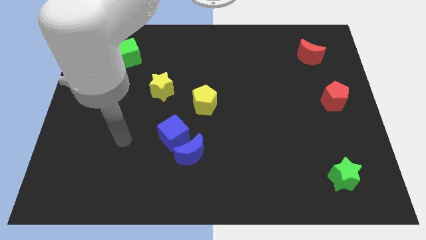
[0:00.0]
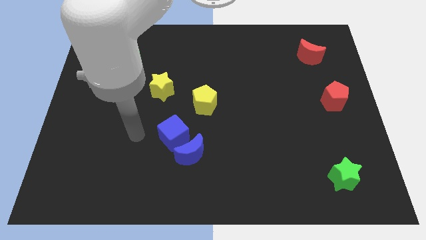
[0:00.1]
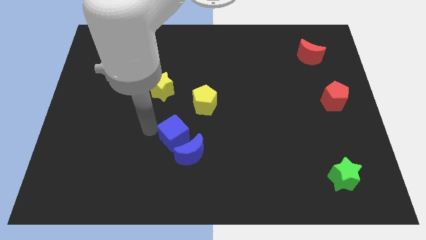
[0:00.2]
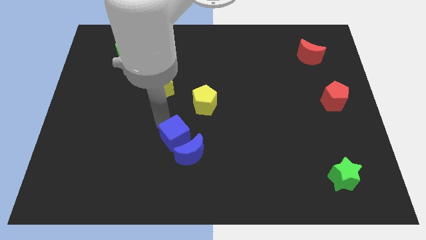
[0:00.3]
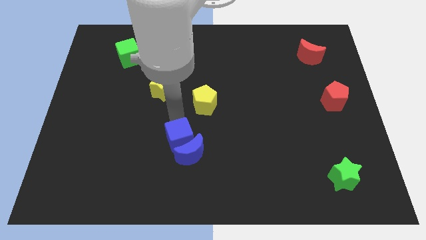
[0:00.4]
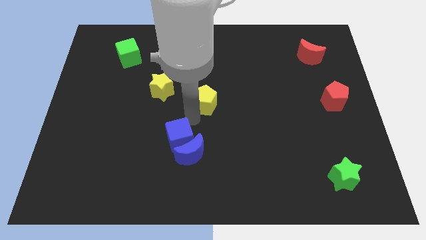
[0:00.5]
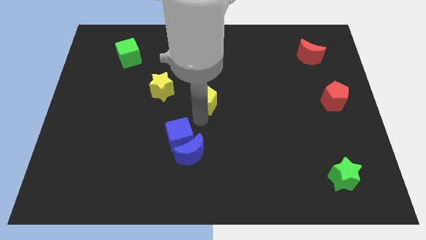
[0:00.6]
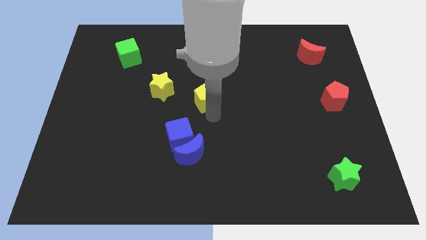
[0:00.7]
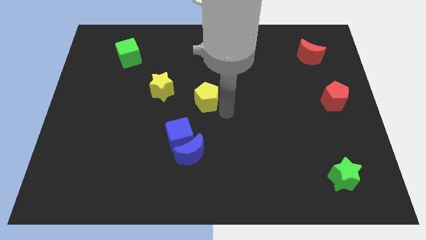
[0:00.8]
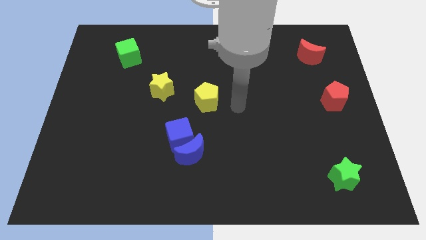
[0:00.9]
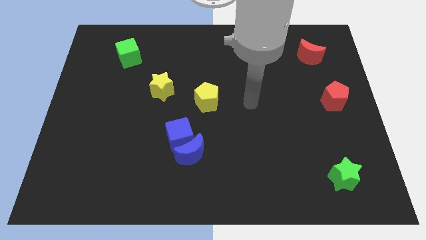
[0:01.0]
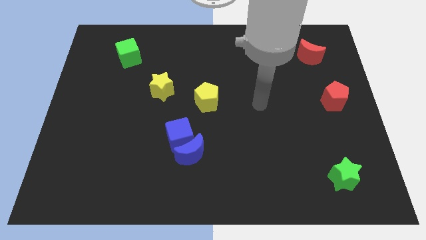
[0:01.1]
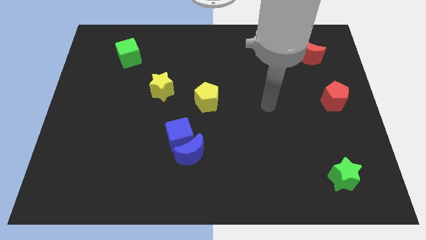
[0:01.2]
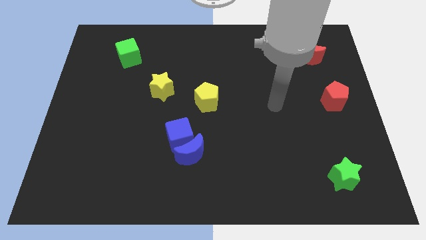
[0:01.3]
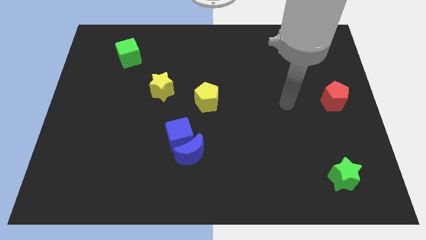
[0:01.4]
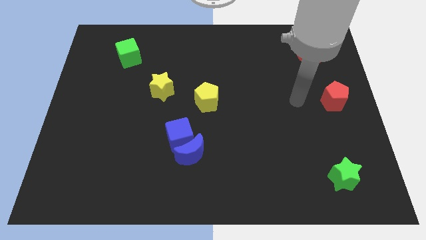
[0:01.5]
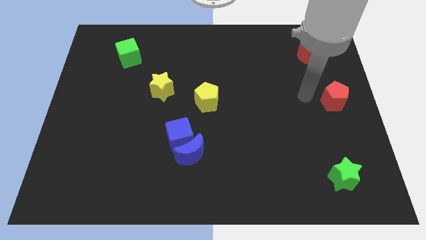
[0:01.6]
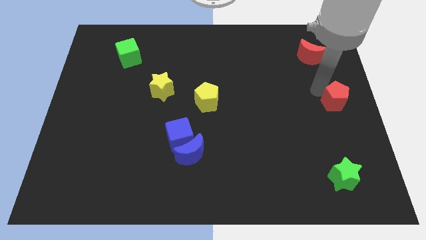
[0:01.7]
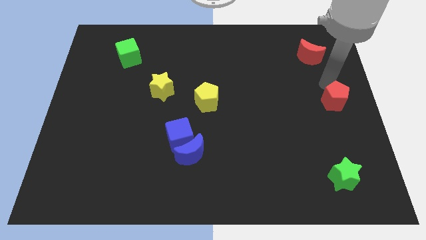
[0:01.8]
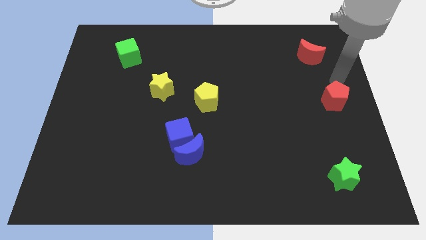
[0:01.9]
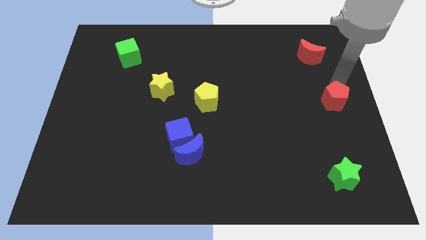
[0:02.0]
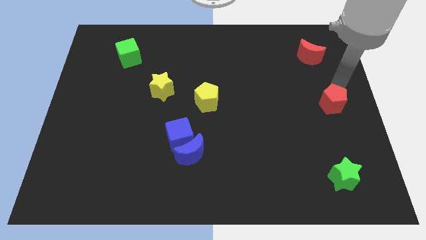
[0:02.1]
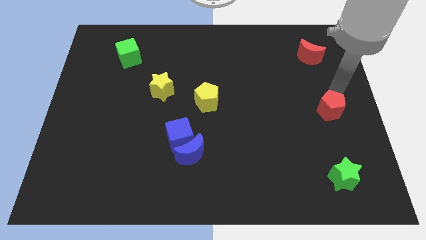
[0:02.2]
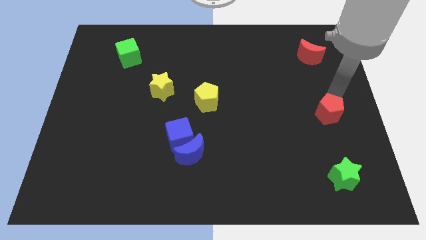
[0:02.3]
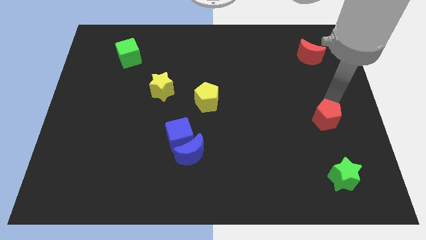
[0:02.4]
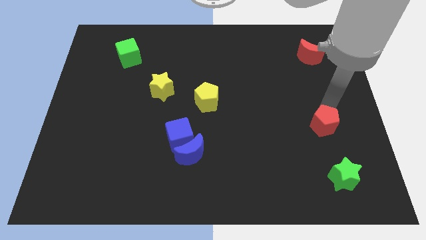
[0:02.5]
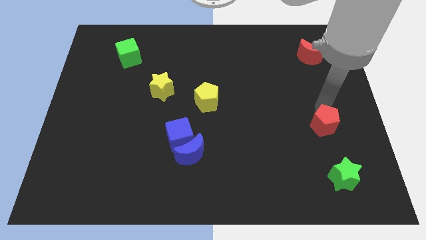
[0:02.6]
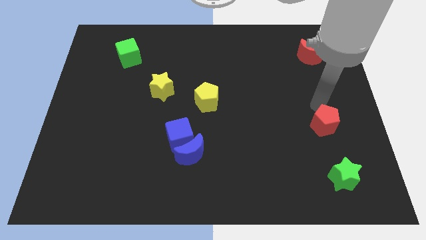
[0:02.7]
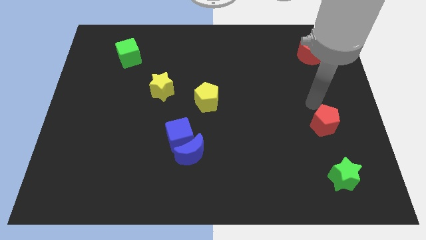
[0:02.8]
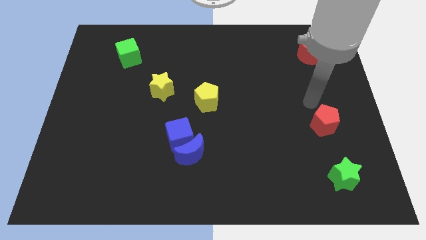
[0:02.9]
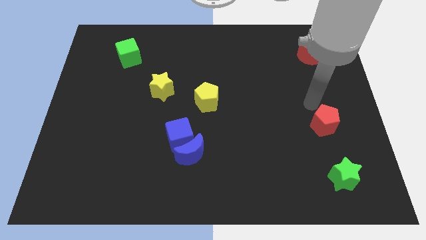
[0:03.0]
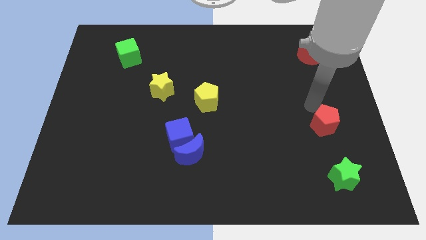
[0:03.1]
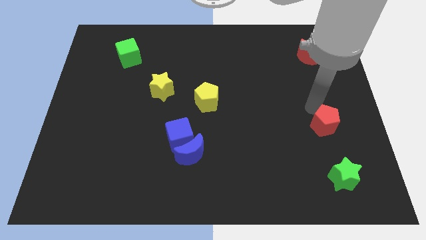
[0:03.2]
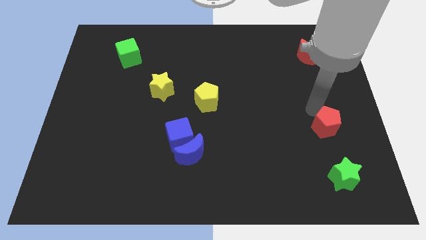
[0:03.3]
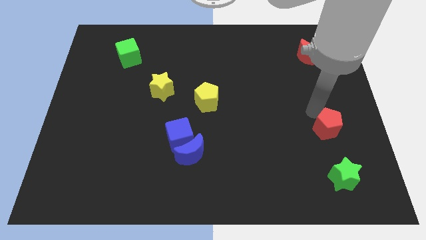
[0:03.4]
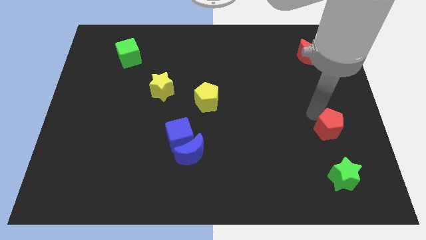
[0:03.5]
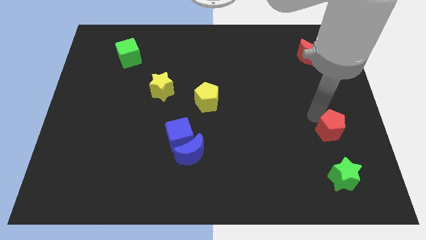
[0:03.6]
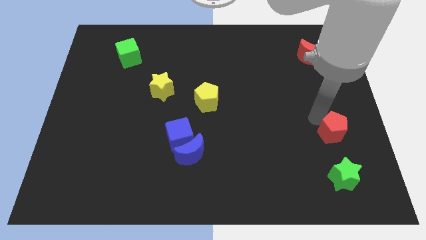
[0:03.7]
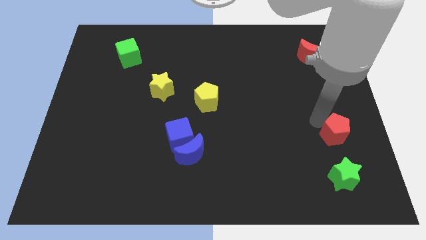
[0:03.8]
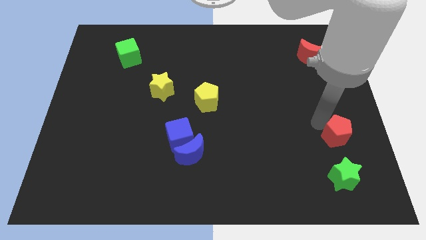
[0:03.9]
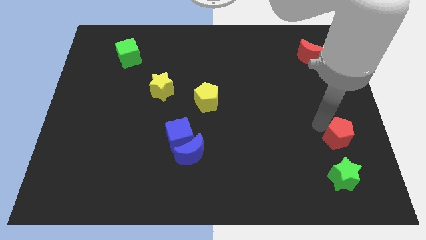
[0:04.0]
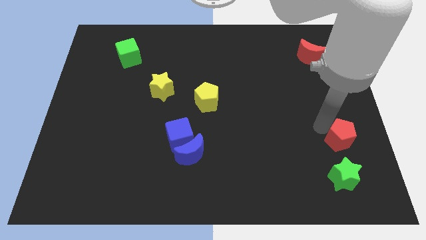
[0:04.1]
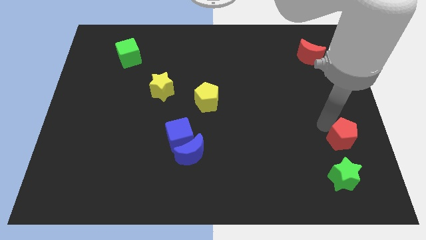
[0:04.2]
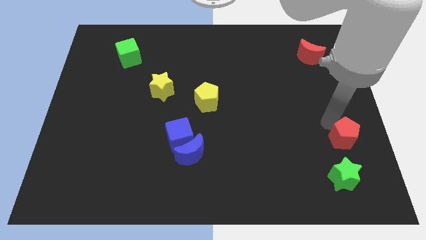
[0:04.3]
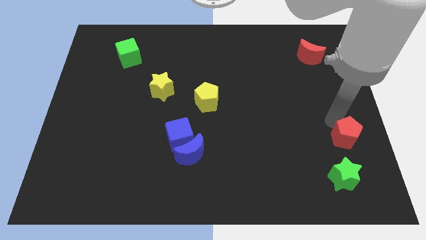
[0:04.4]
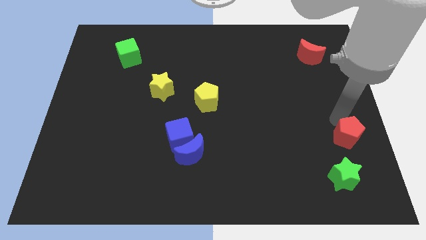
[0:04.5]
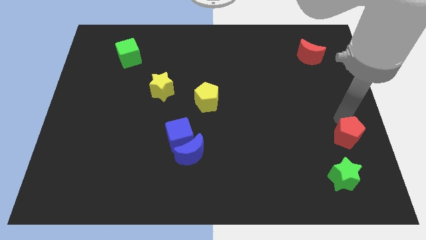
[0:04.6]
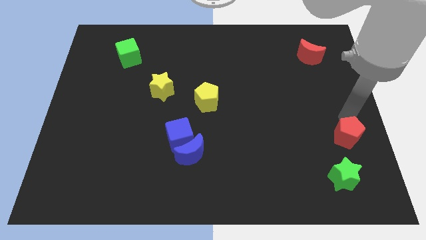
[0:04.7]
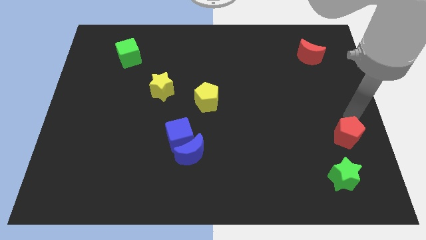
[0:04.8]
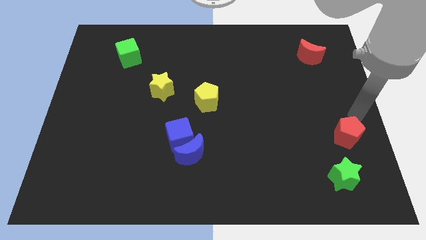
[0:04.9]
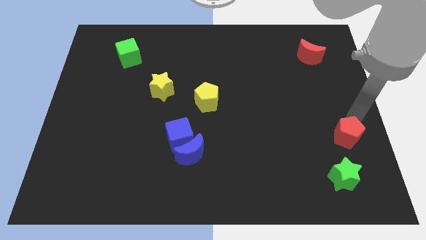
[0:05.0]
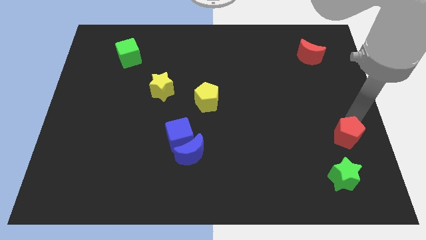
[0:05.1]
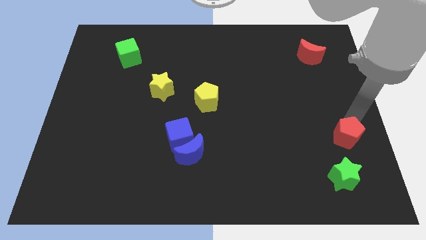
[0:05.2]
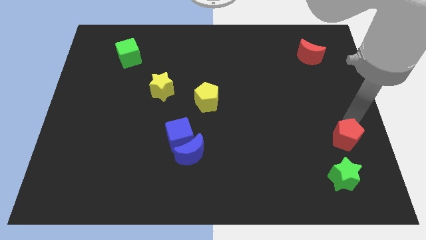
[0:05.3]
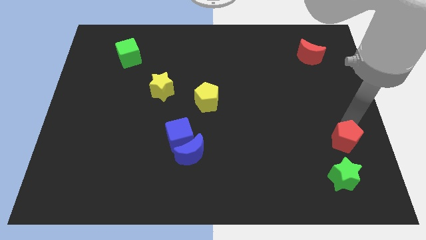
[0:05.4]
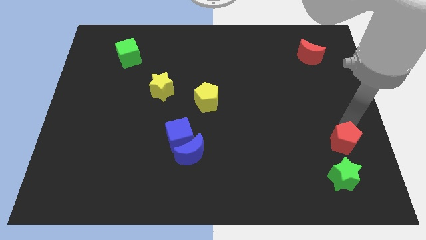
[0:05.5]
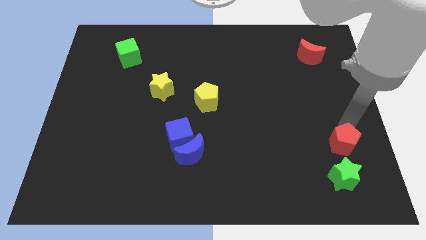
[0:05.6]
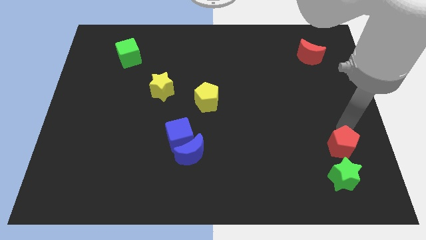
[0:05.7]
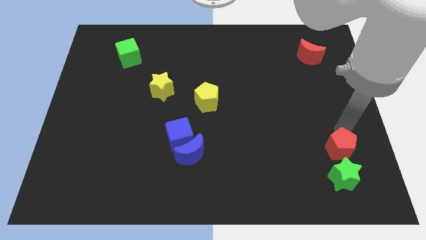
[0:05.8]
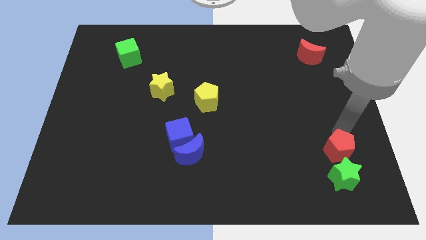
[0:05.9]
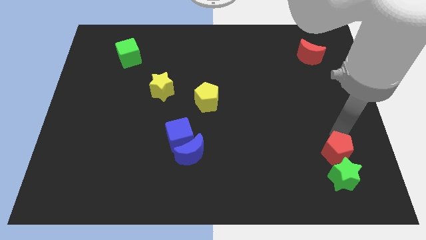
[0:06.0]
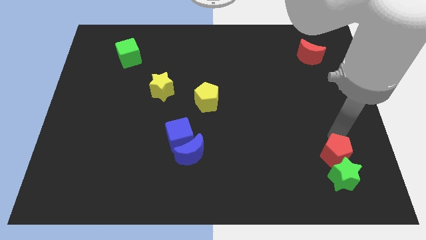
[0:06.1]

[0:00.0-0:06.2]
push the red pentagon towards the green star

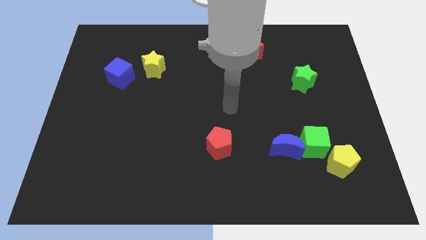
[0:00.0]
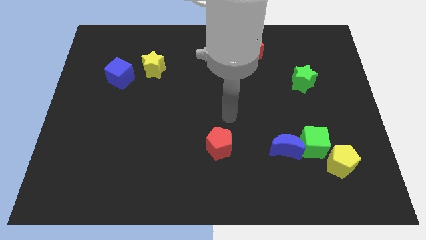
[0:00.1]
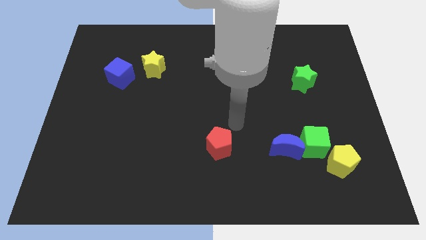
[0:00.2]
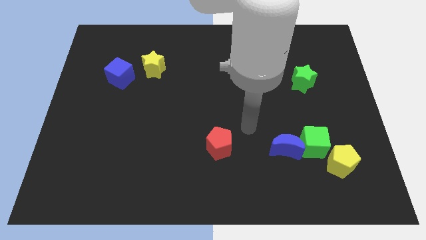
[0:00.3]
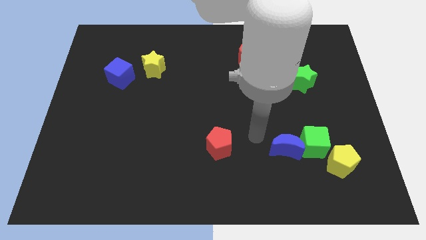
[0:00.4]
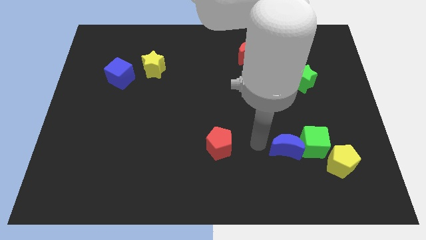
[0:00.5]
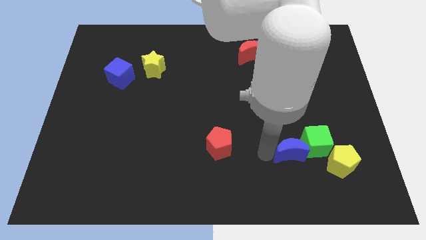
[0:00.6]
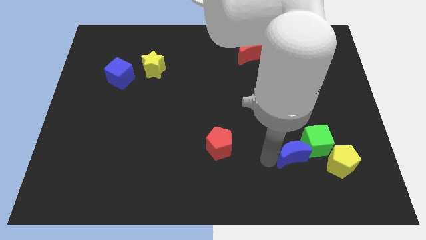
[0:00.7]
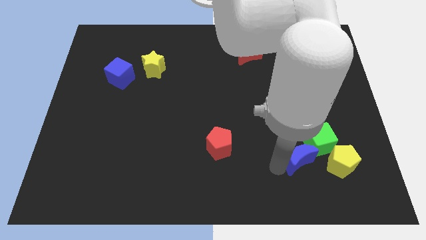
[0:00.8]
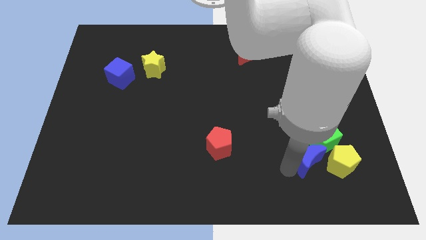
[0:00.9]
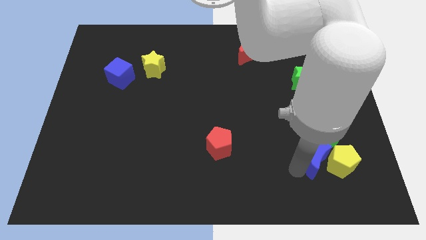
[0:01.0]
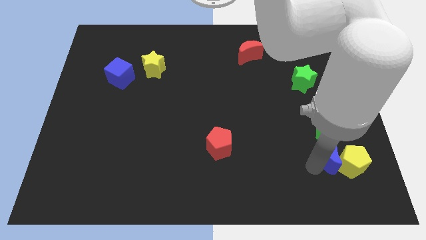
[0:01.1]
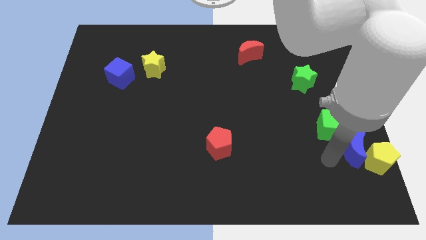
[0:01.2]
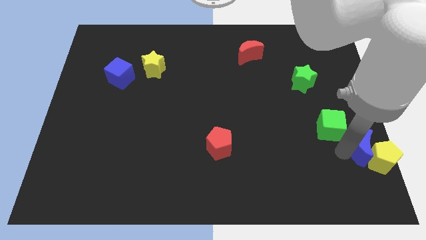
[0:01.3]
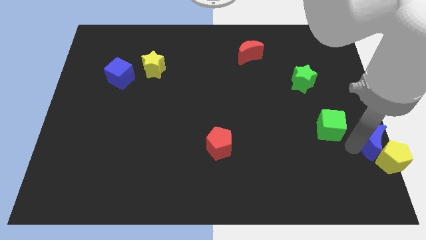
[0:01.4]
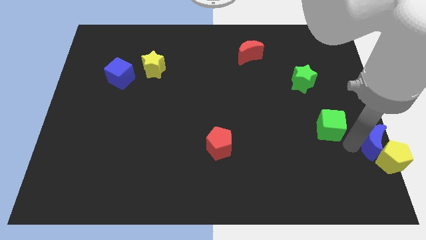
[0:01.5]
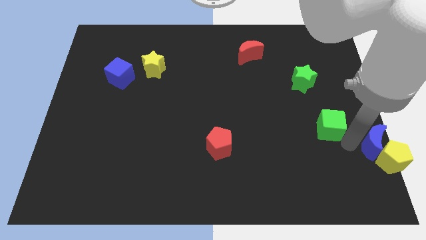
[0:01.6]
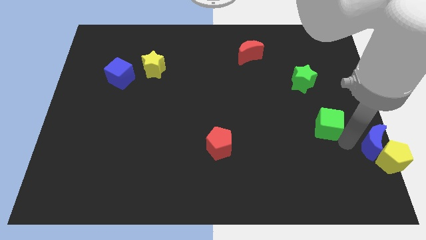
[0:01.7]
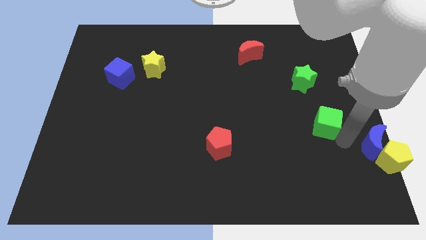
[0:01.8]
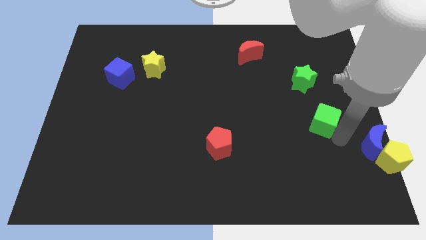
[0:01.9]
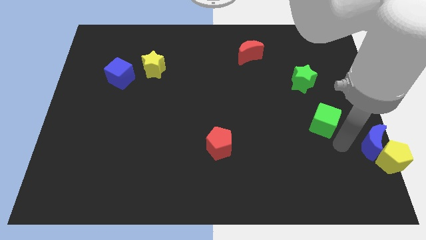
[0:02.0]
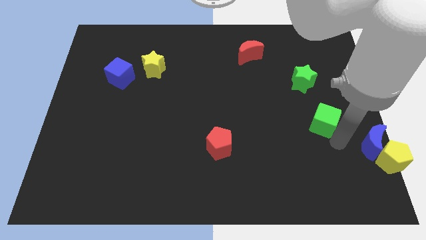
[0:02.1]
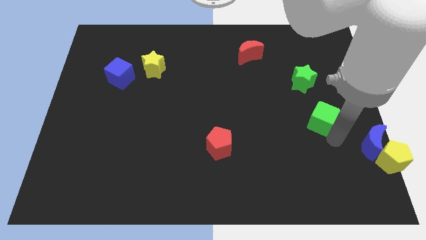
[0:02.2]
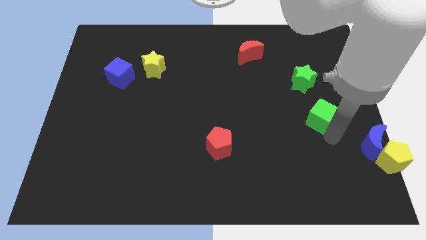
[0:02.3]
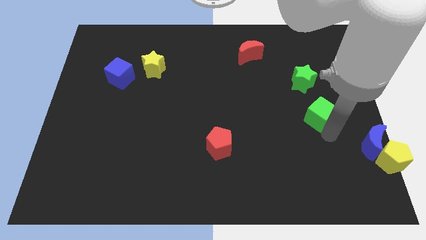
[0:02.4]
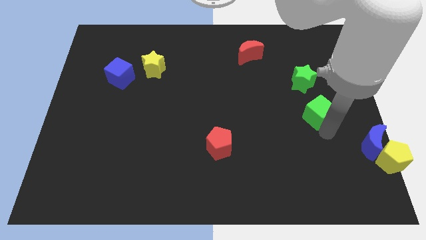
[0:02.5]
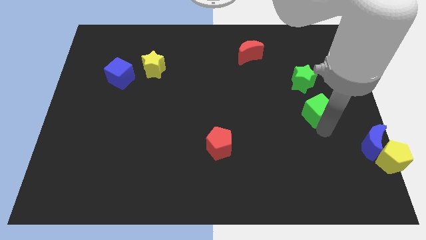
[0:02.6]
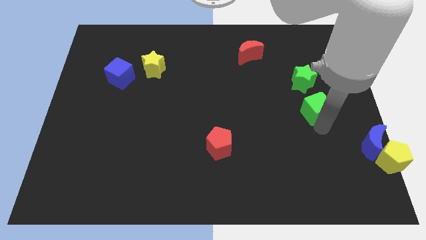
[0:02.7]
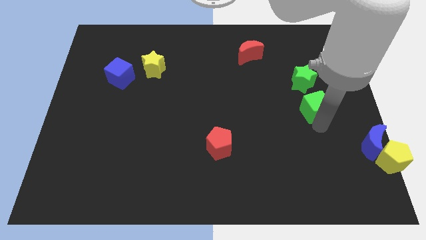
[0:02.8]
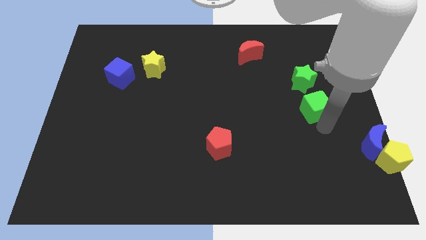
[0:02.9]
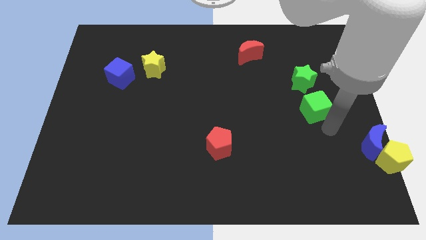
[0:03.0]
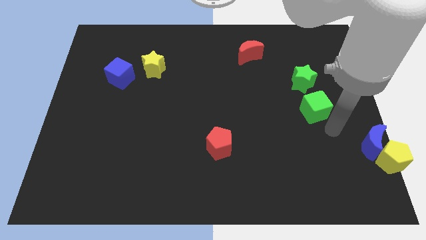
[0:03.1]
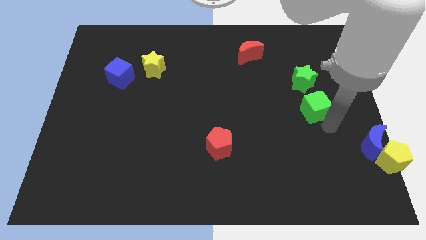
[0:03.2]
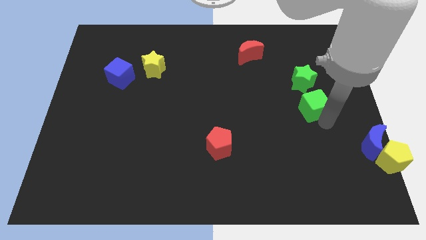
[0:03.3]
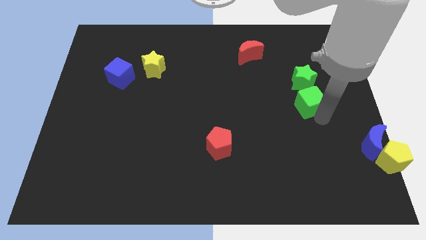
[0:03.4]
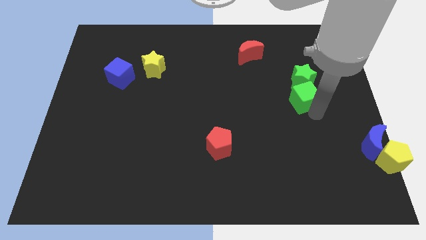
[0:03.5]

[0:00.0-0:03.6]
put the green cube next to the green star
